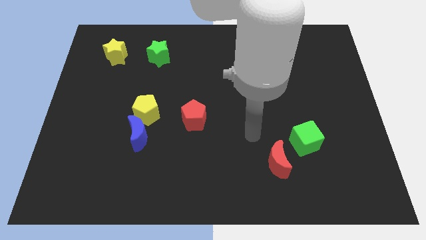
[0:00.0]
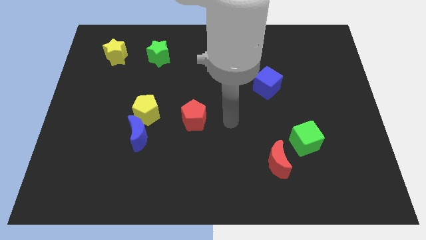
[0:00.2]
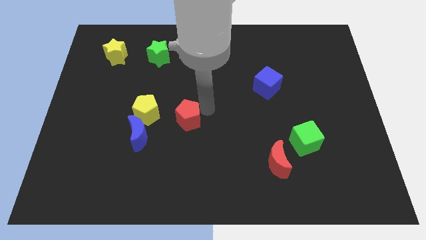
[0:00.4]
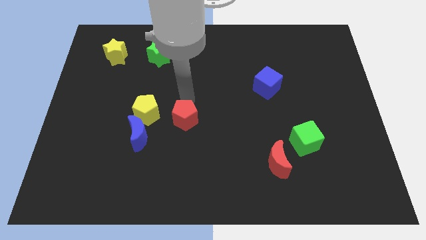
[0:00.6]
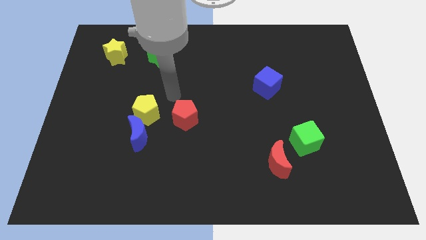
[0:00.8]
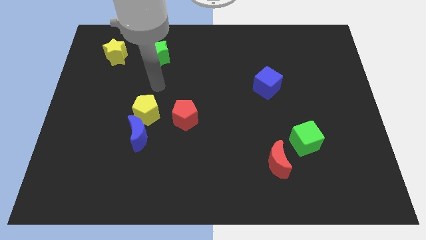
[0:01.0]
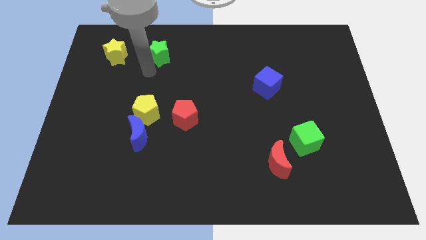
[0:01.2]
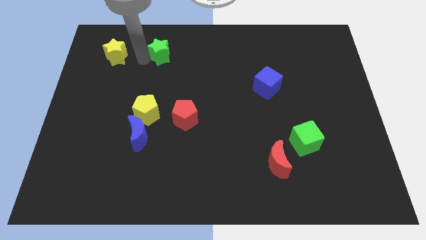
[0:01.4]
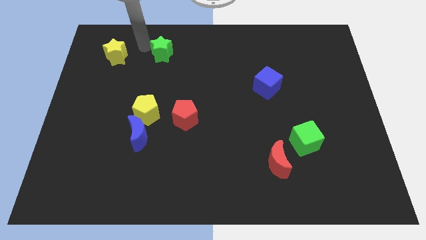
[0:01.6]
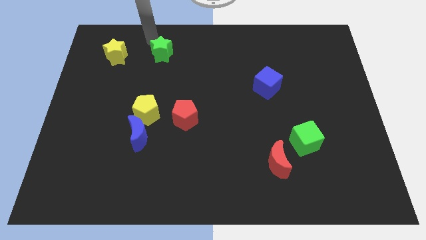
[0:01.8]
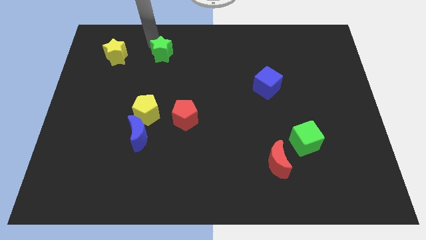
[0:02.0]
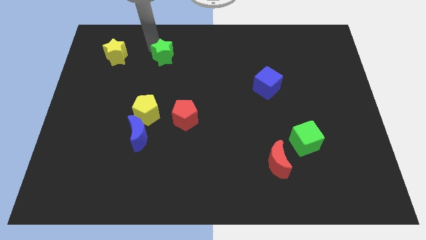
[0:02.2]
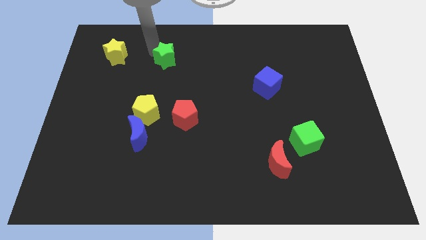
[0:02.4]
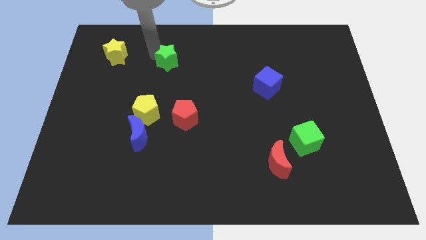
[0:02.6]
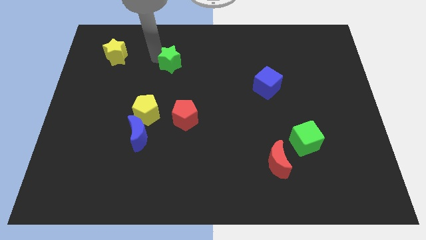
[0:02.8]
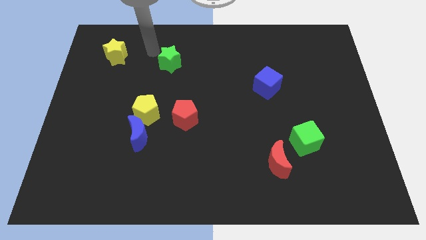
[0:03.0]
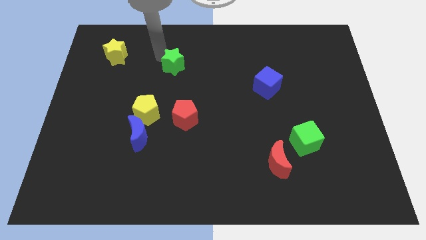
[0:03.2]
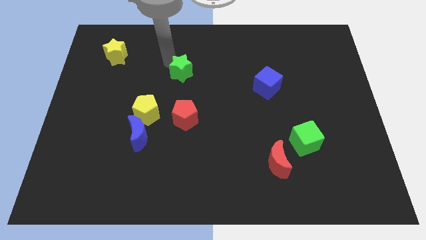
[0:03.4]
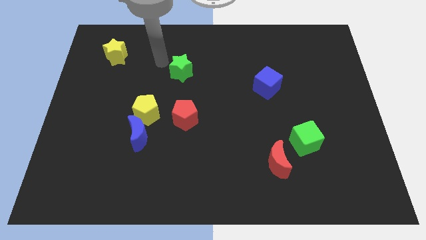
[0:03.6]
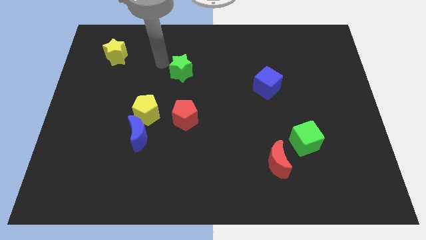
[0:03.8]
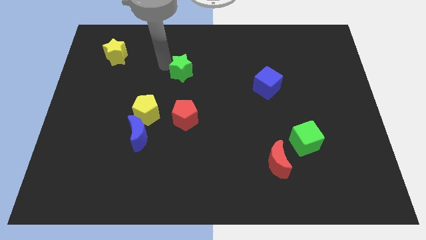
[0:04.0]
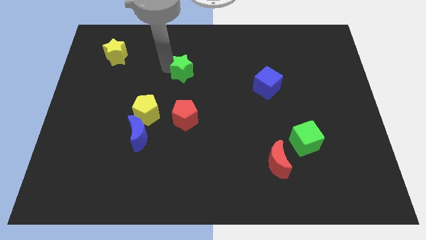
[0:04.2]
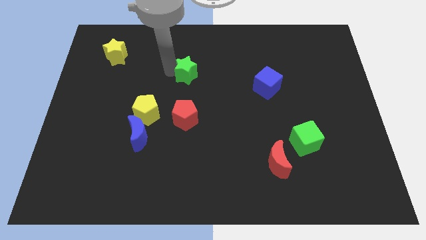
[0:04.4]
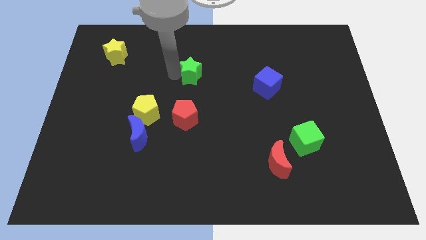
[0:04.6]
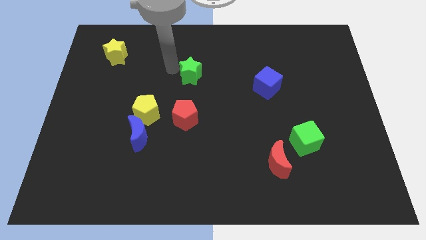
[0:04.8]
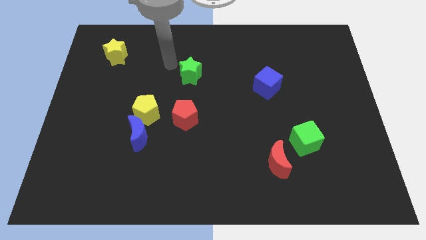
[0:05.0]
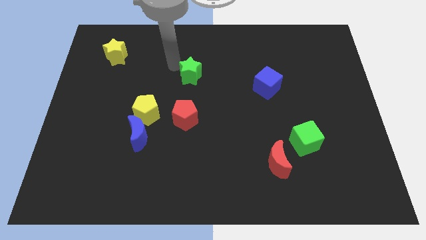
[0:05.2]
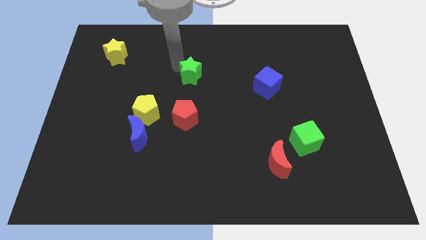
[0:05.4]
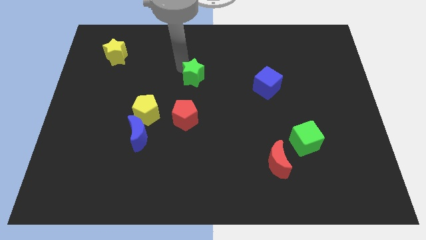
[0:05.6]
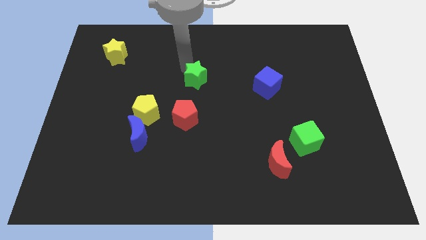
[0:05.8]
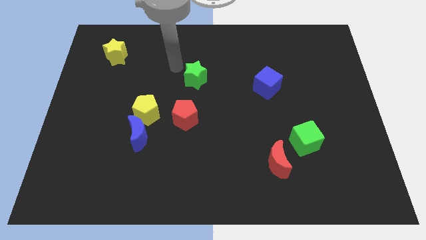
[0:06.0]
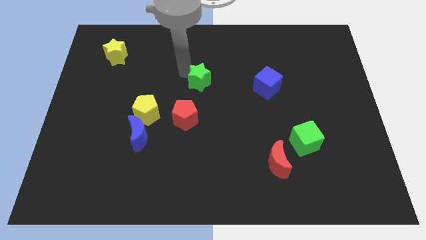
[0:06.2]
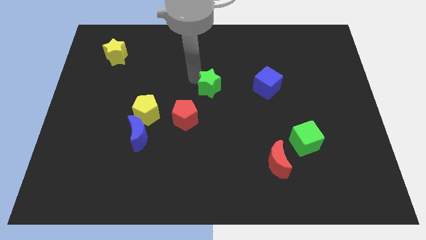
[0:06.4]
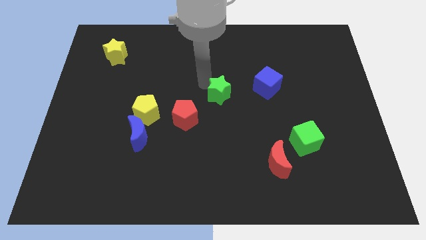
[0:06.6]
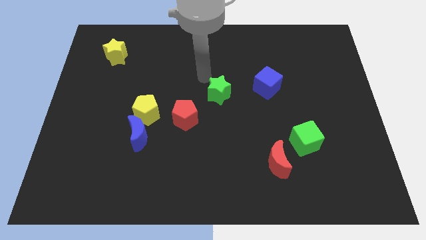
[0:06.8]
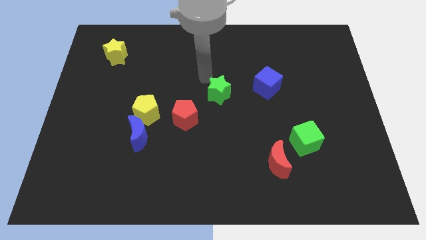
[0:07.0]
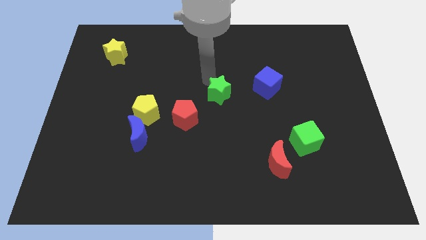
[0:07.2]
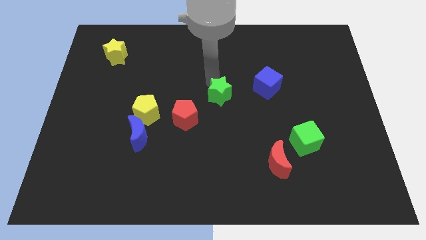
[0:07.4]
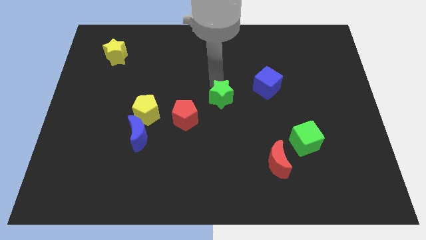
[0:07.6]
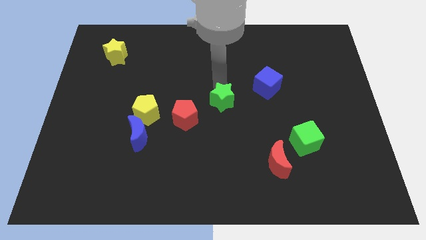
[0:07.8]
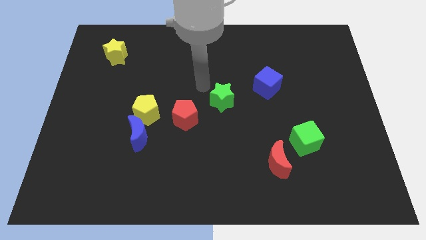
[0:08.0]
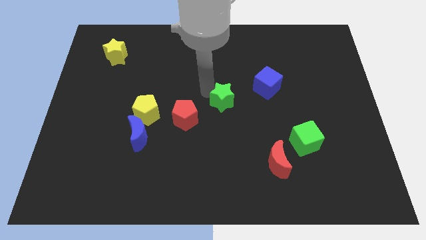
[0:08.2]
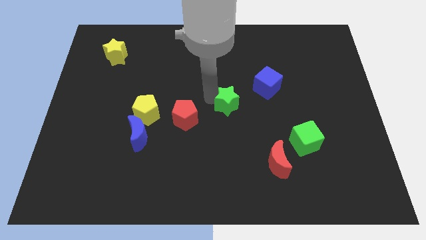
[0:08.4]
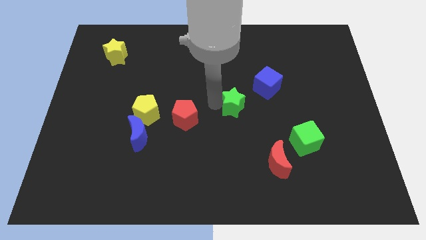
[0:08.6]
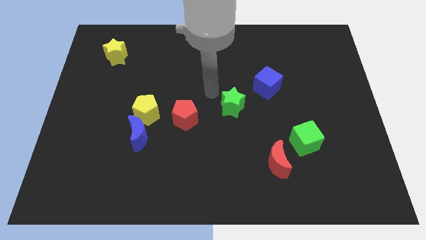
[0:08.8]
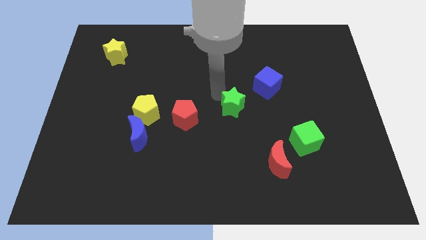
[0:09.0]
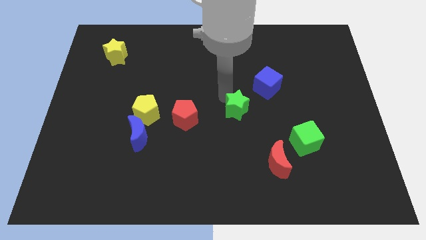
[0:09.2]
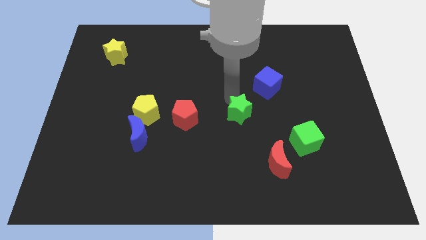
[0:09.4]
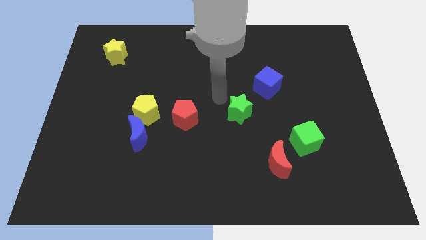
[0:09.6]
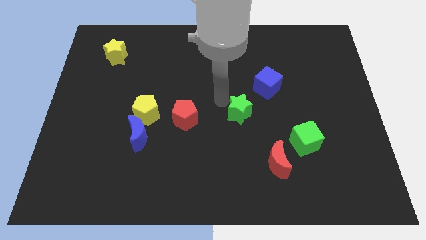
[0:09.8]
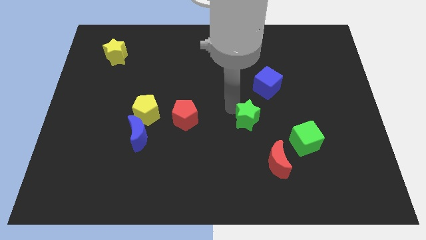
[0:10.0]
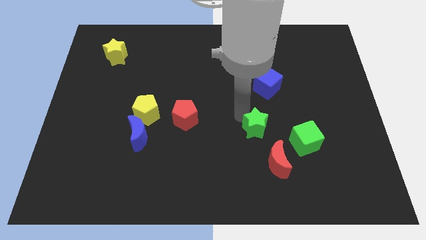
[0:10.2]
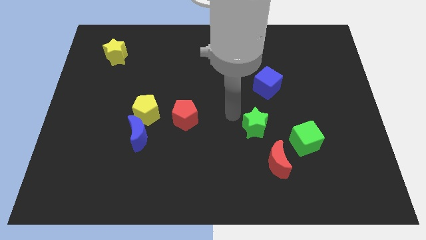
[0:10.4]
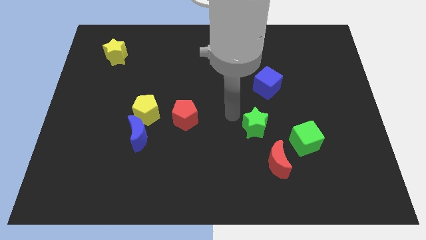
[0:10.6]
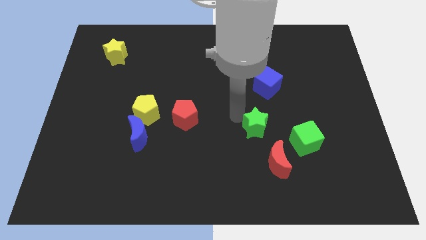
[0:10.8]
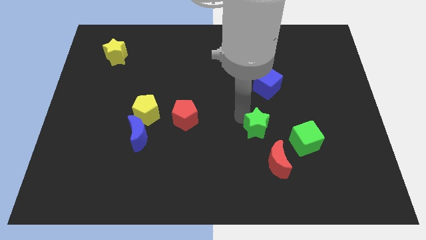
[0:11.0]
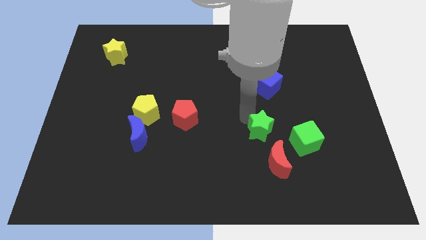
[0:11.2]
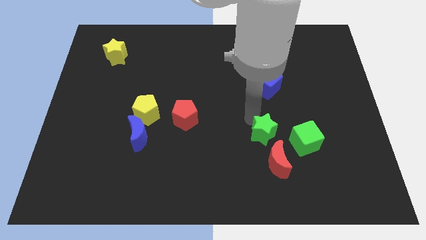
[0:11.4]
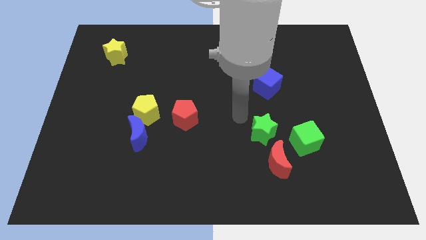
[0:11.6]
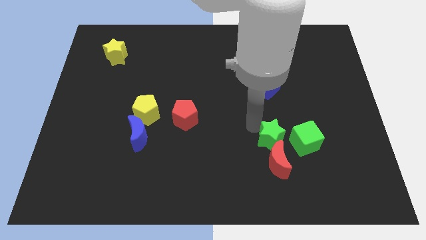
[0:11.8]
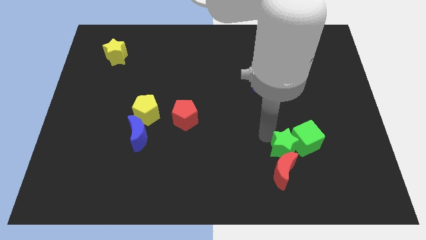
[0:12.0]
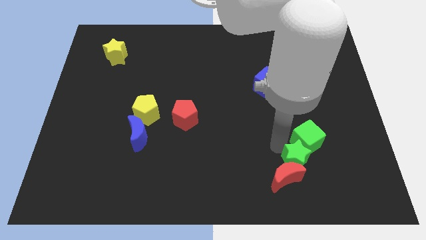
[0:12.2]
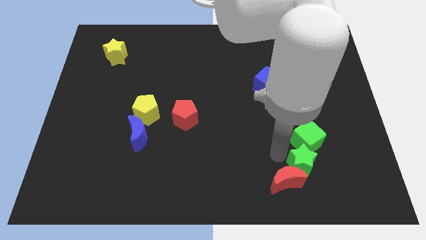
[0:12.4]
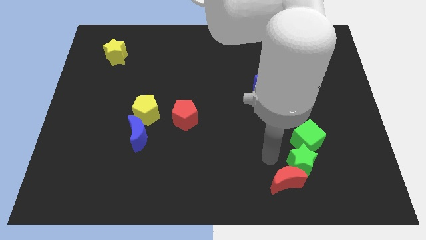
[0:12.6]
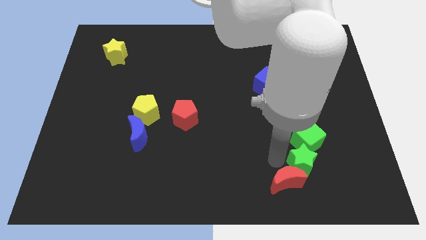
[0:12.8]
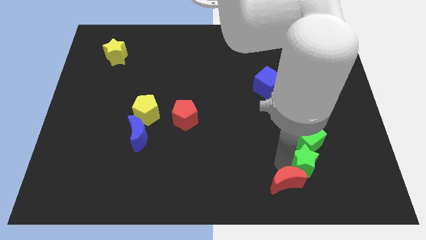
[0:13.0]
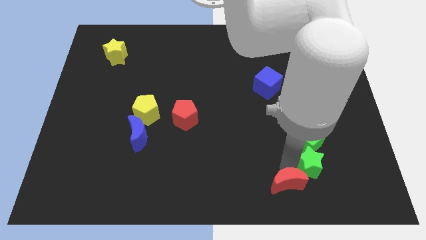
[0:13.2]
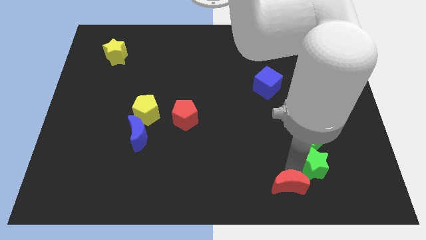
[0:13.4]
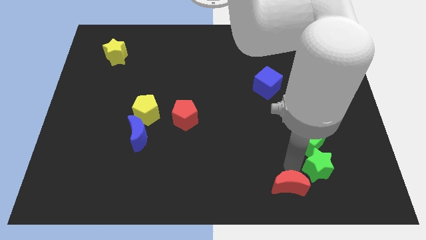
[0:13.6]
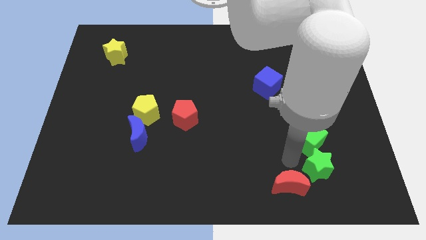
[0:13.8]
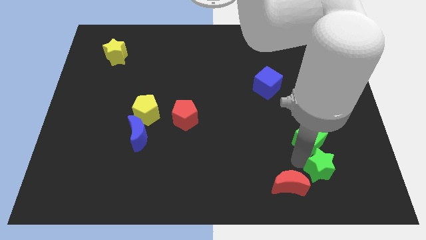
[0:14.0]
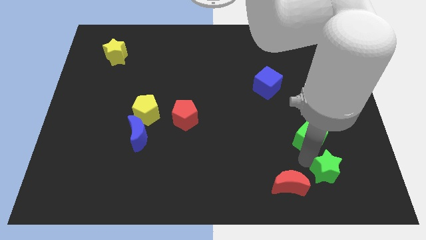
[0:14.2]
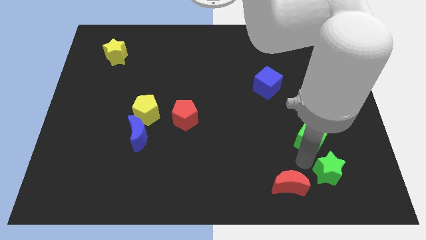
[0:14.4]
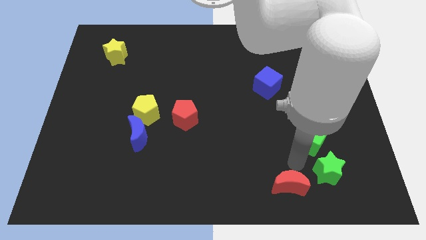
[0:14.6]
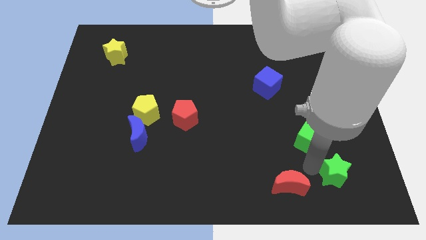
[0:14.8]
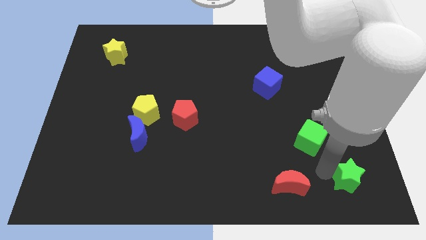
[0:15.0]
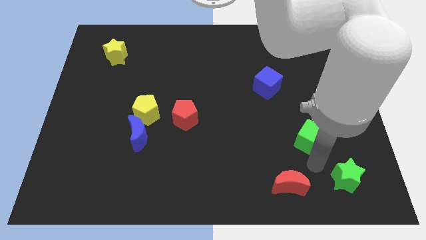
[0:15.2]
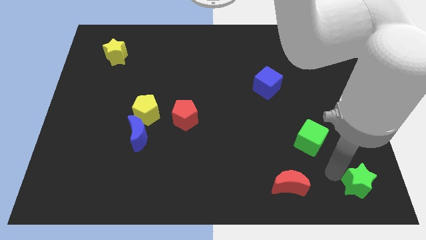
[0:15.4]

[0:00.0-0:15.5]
move the green star to the lower right corner
